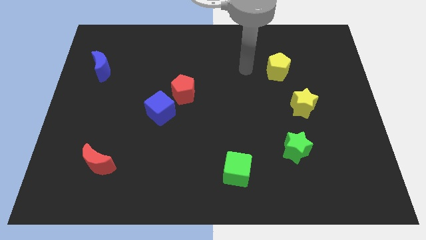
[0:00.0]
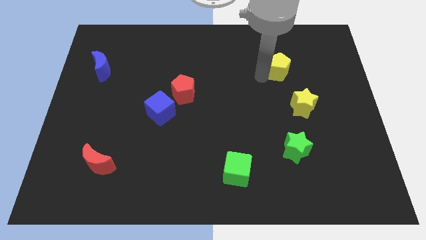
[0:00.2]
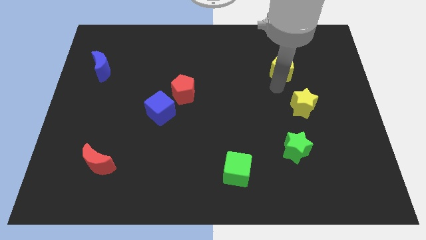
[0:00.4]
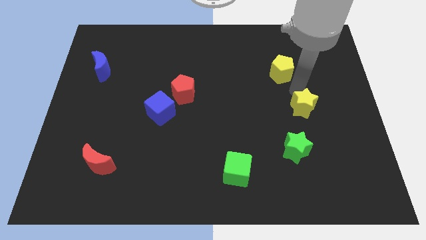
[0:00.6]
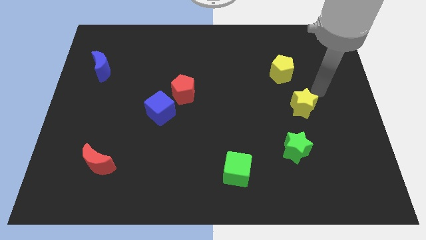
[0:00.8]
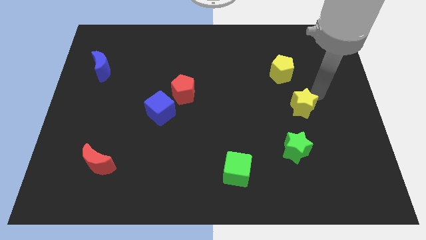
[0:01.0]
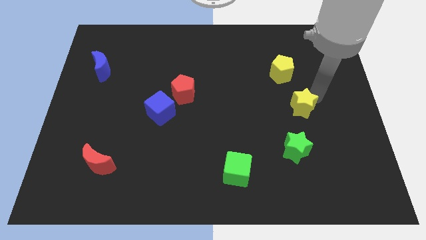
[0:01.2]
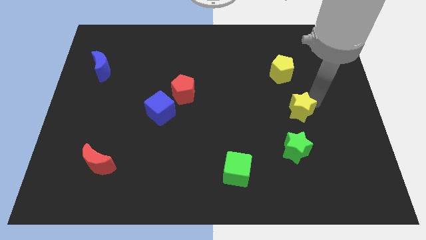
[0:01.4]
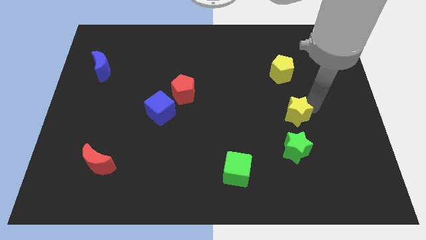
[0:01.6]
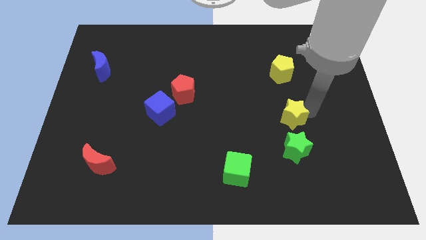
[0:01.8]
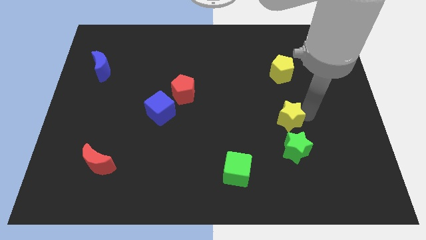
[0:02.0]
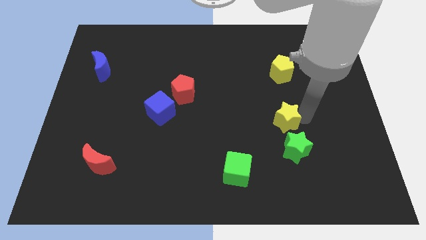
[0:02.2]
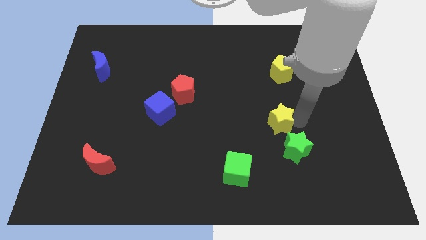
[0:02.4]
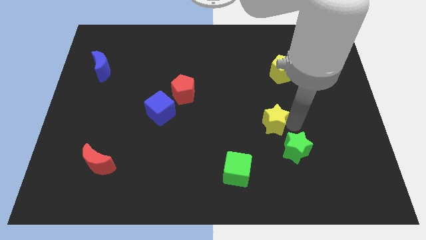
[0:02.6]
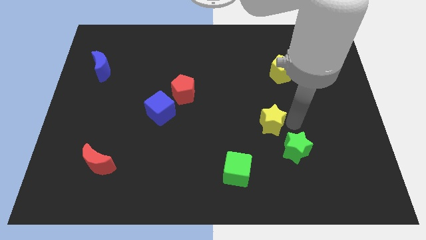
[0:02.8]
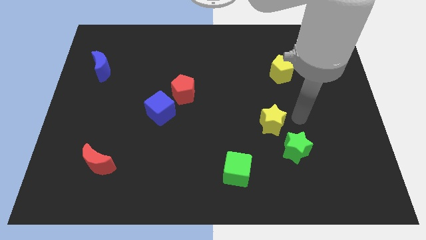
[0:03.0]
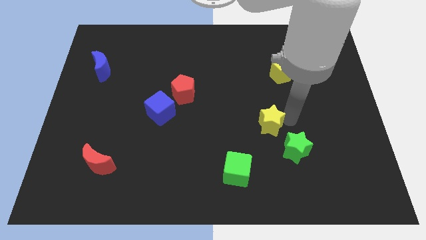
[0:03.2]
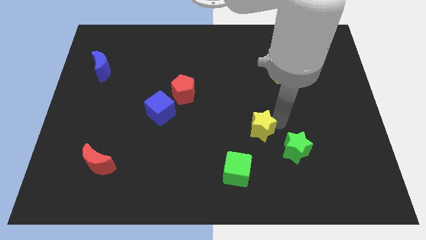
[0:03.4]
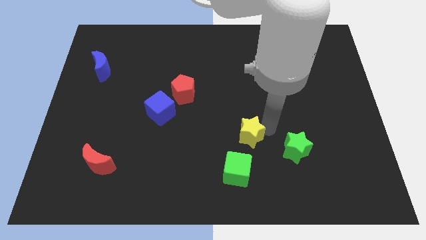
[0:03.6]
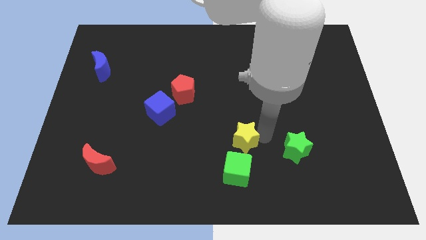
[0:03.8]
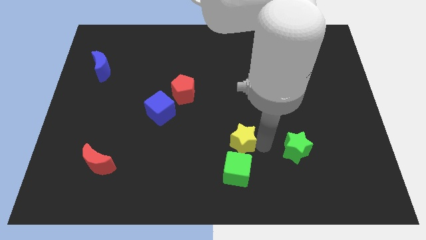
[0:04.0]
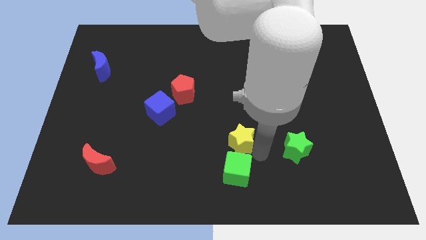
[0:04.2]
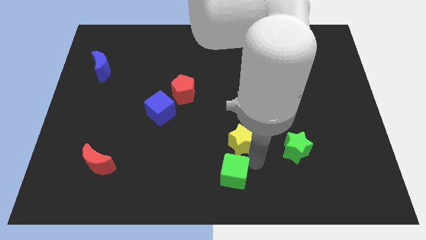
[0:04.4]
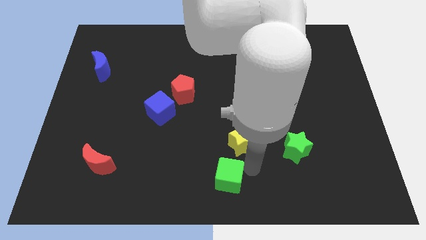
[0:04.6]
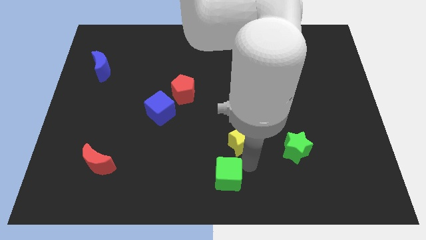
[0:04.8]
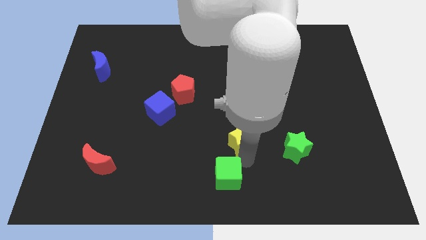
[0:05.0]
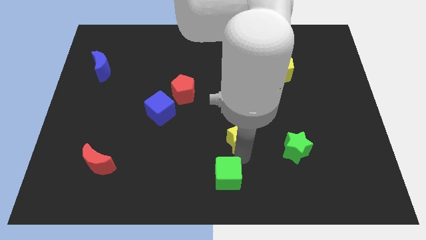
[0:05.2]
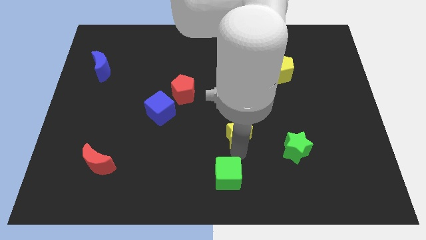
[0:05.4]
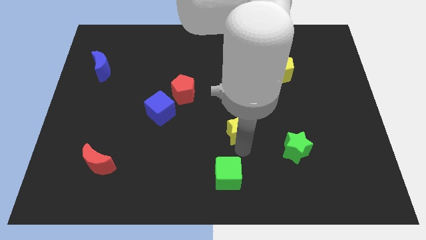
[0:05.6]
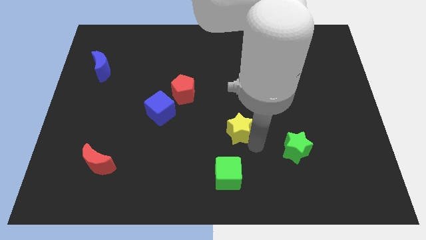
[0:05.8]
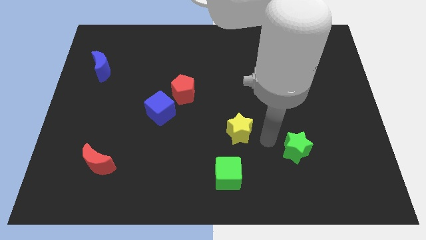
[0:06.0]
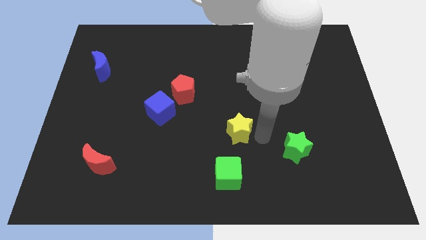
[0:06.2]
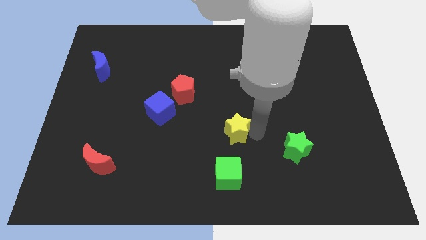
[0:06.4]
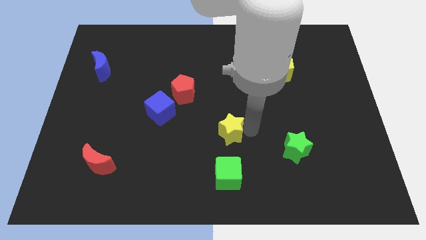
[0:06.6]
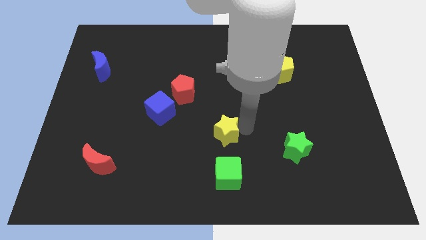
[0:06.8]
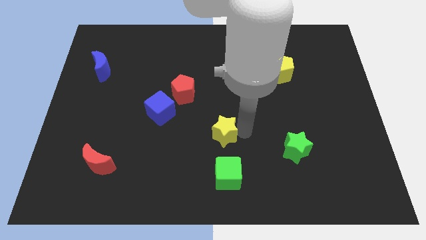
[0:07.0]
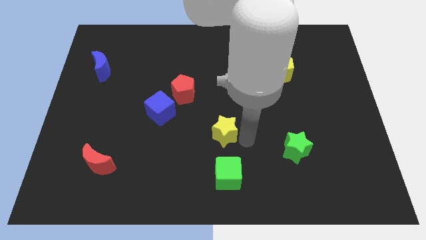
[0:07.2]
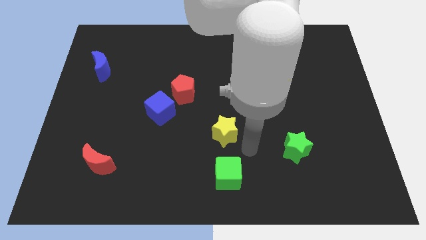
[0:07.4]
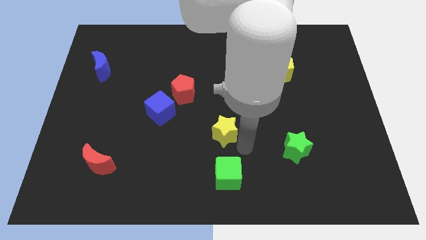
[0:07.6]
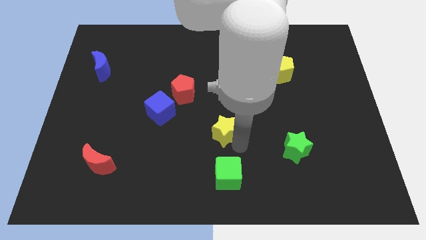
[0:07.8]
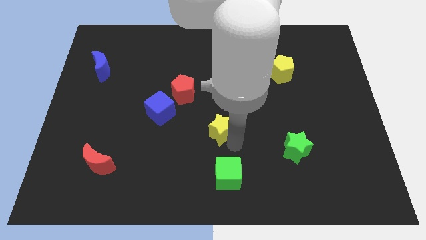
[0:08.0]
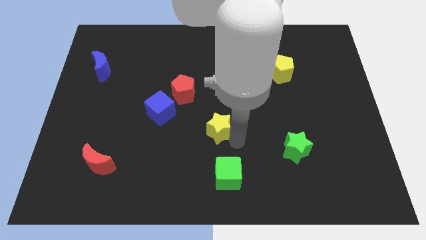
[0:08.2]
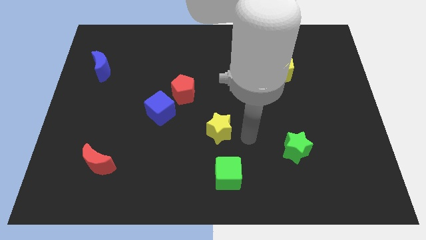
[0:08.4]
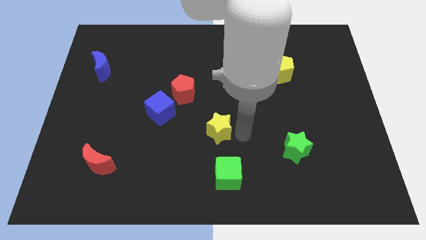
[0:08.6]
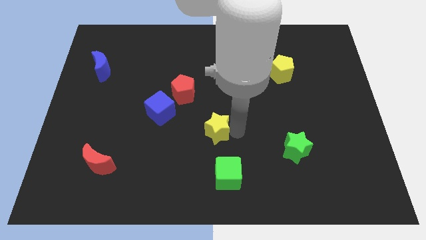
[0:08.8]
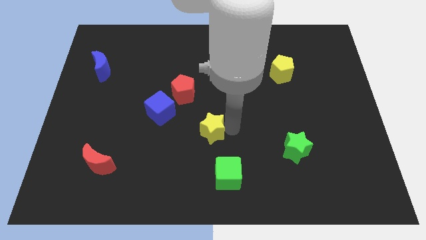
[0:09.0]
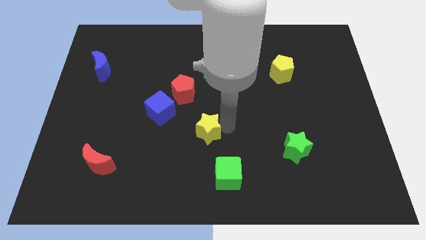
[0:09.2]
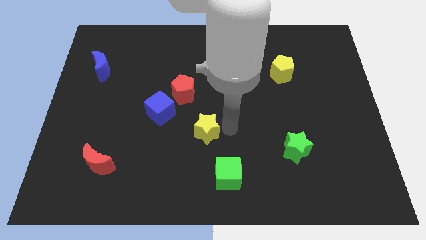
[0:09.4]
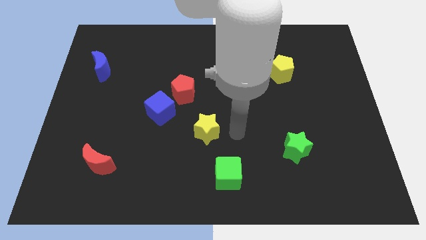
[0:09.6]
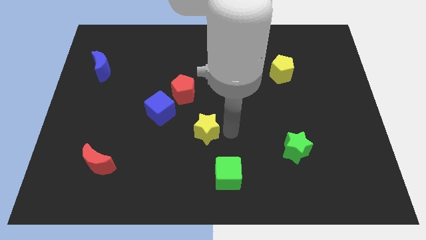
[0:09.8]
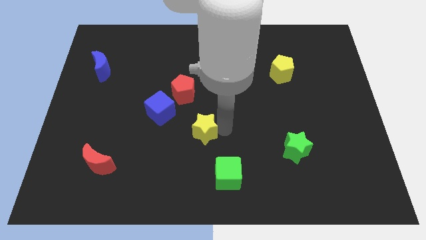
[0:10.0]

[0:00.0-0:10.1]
slide the yellow star diagonally down and to the right of the blue cube

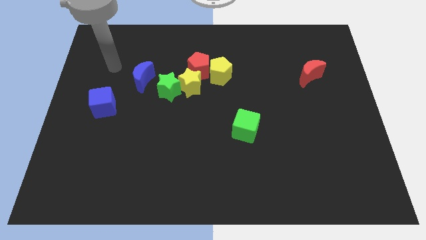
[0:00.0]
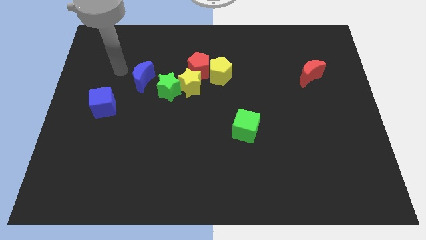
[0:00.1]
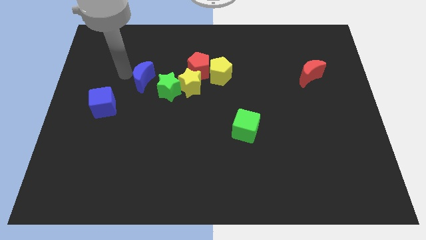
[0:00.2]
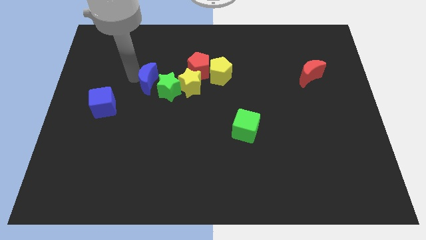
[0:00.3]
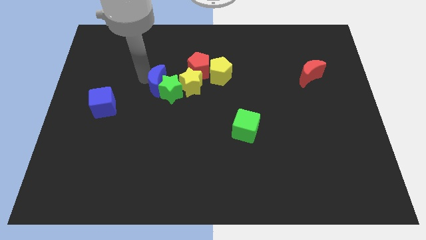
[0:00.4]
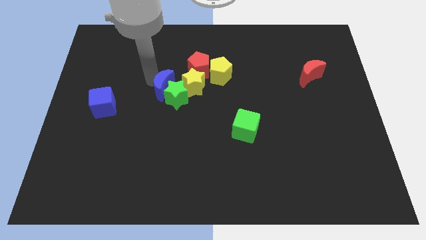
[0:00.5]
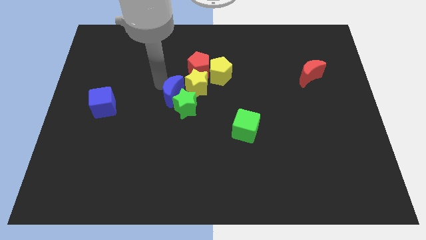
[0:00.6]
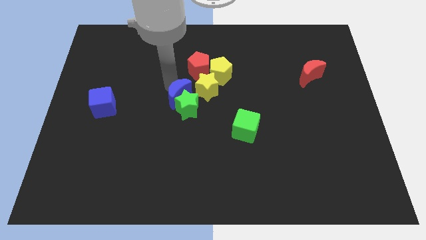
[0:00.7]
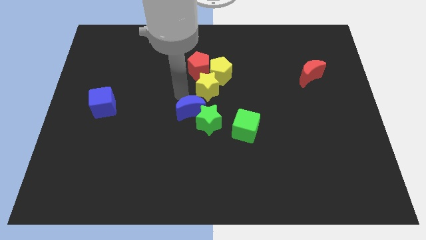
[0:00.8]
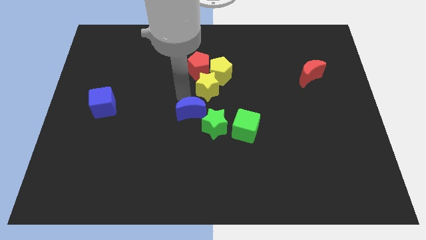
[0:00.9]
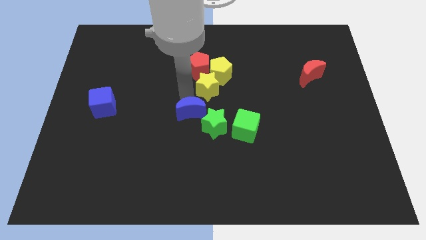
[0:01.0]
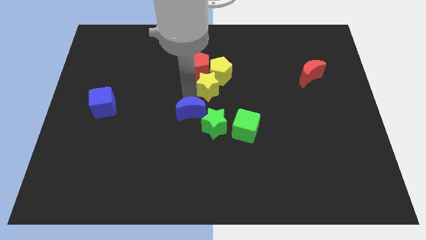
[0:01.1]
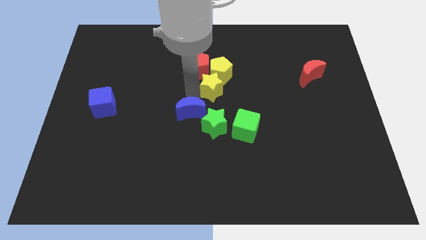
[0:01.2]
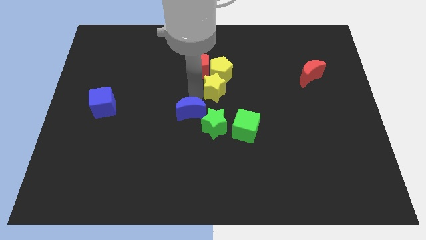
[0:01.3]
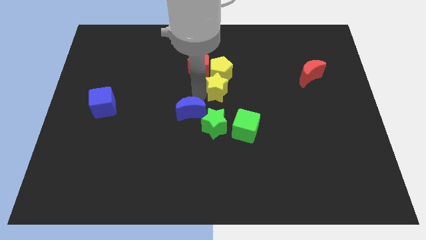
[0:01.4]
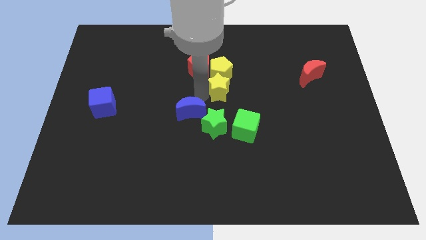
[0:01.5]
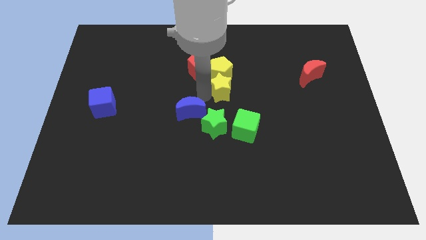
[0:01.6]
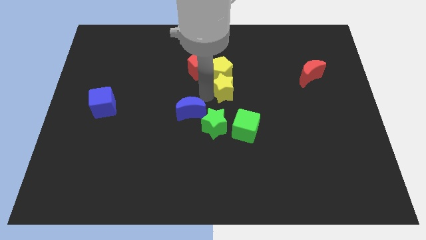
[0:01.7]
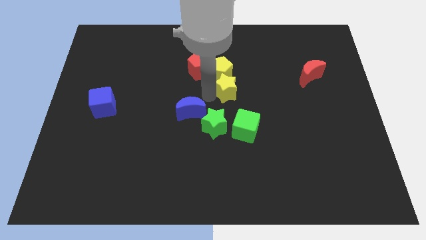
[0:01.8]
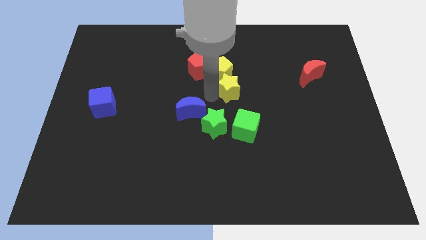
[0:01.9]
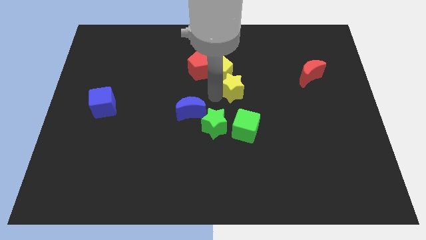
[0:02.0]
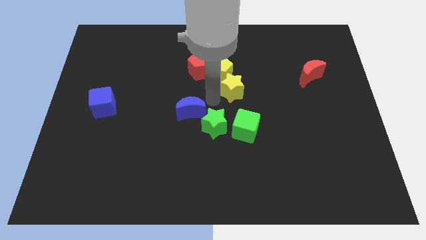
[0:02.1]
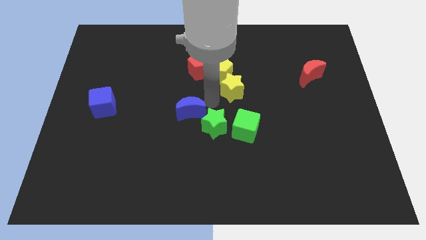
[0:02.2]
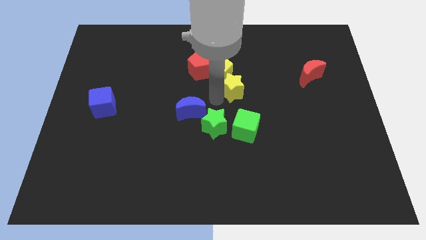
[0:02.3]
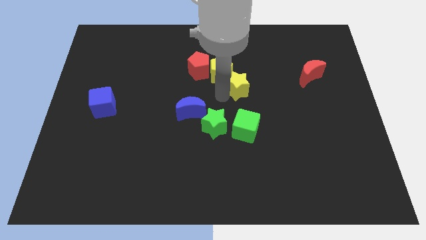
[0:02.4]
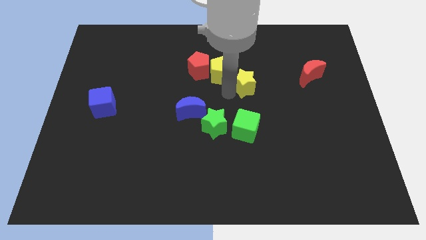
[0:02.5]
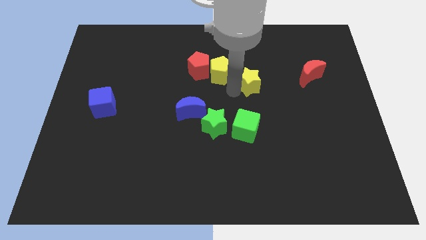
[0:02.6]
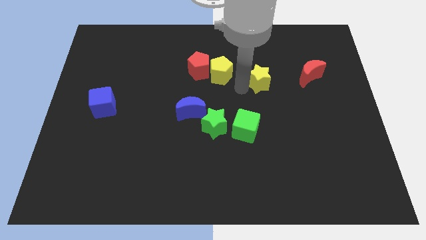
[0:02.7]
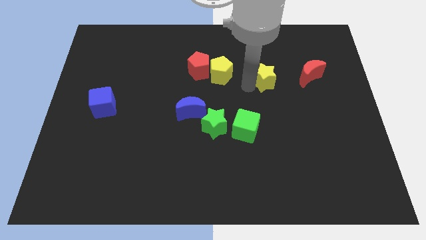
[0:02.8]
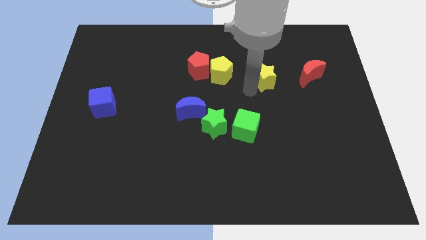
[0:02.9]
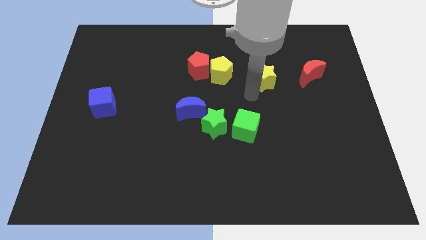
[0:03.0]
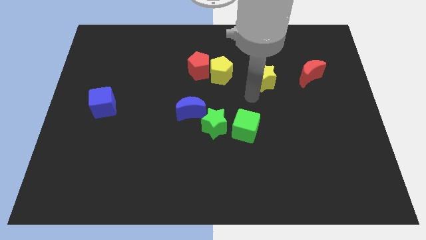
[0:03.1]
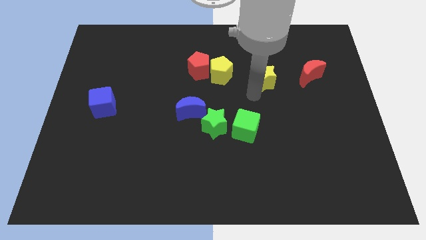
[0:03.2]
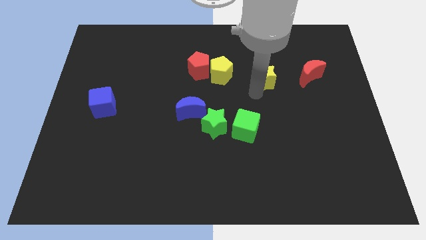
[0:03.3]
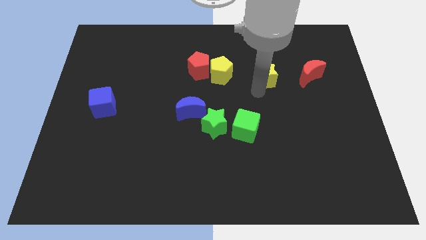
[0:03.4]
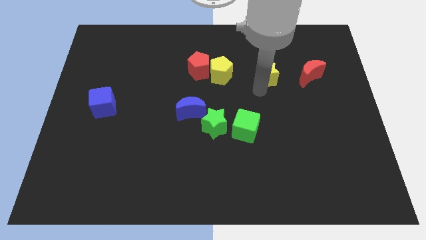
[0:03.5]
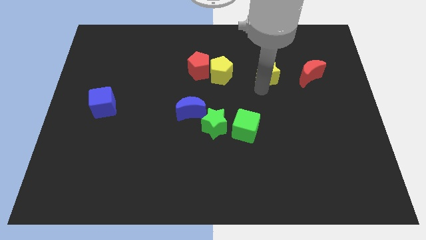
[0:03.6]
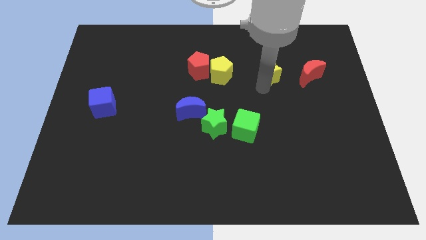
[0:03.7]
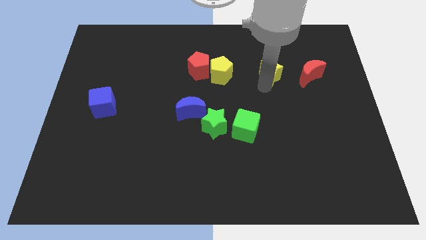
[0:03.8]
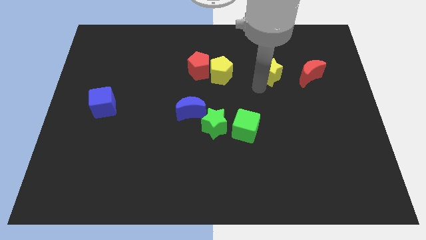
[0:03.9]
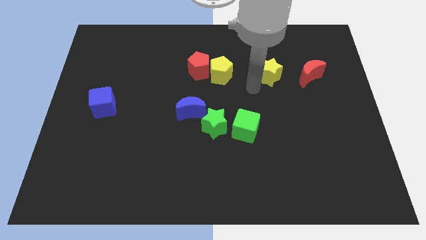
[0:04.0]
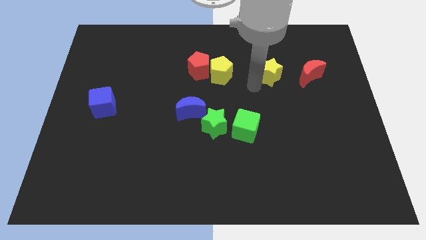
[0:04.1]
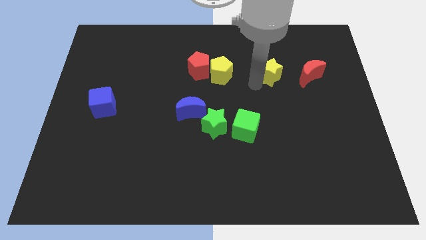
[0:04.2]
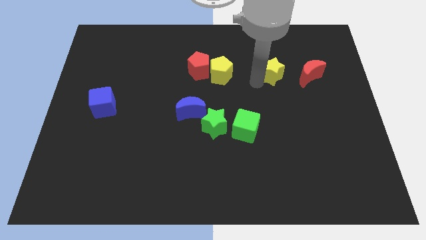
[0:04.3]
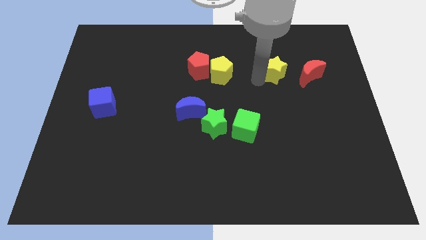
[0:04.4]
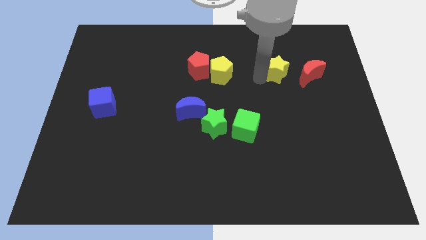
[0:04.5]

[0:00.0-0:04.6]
push the yellow star diagonally up and to the left of the red moon
